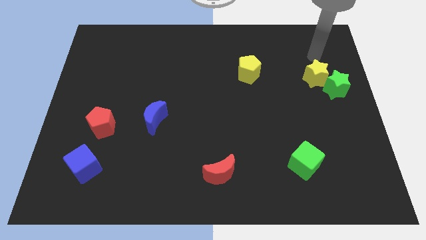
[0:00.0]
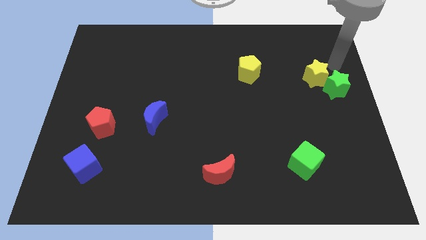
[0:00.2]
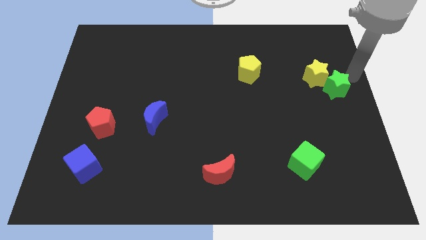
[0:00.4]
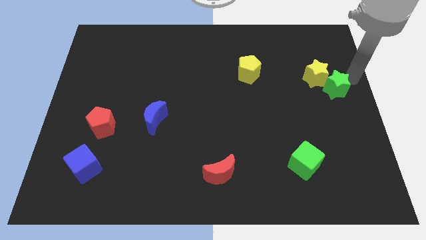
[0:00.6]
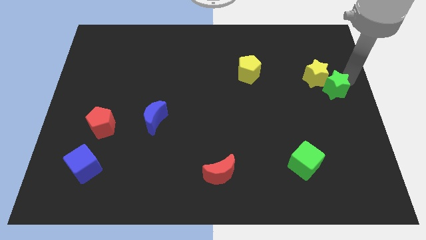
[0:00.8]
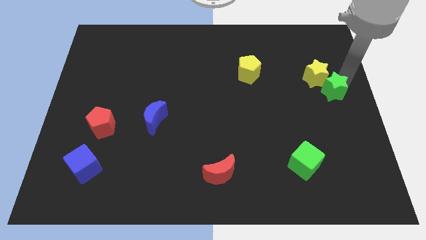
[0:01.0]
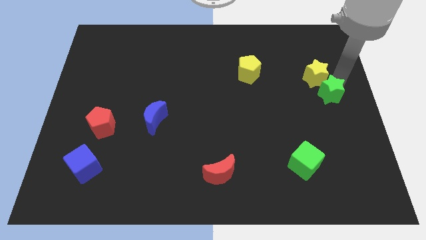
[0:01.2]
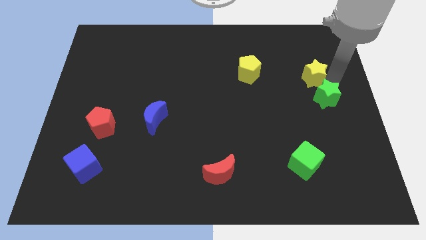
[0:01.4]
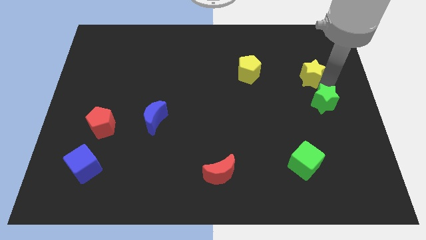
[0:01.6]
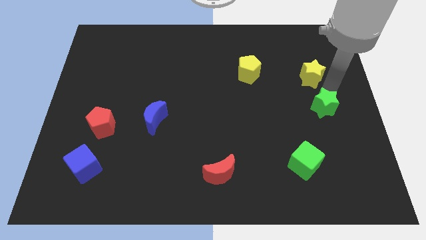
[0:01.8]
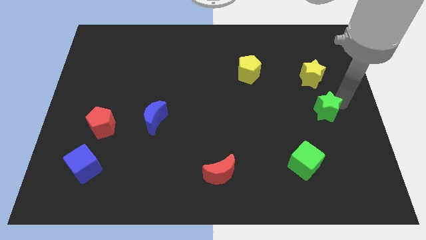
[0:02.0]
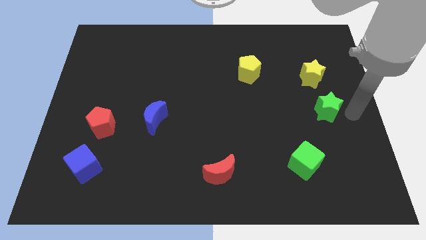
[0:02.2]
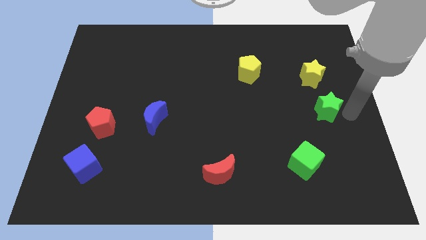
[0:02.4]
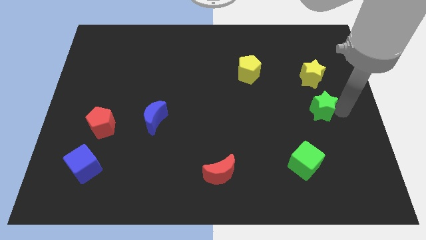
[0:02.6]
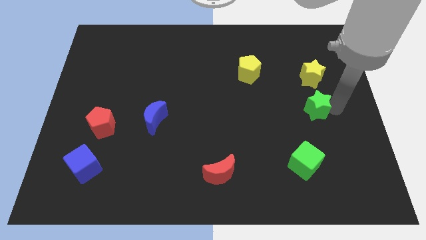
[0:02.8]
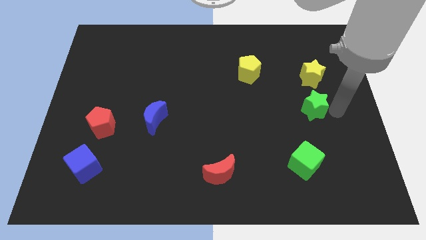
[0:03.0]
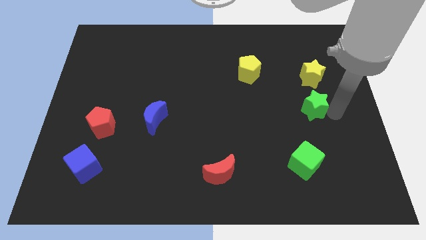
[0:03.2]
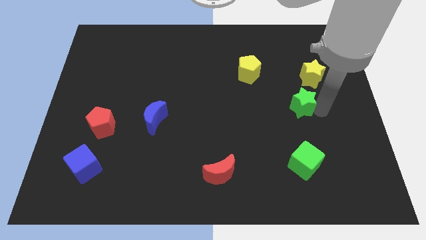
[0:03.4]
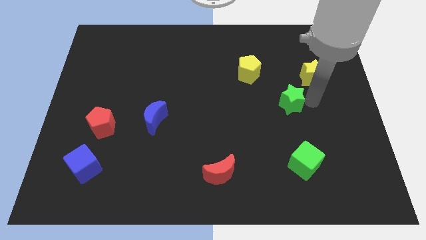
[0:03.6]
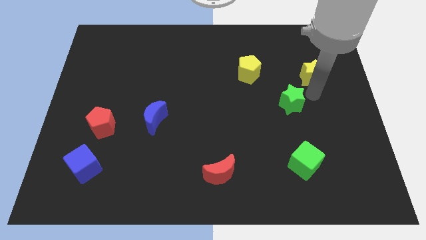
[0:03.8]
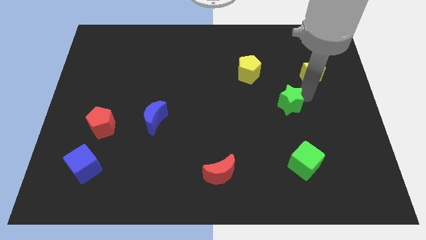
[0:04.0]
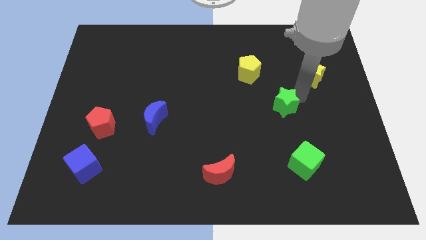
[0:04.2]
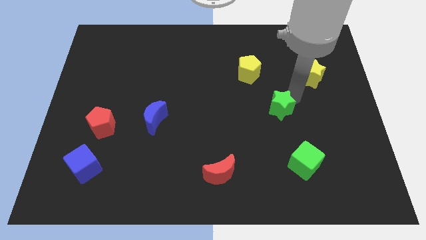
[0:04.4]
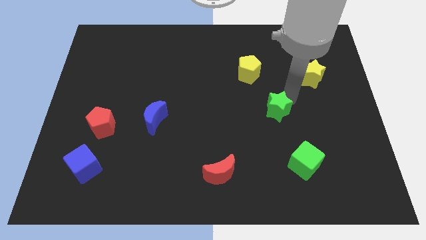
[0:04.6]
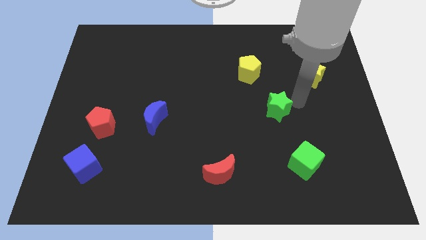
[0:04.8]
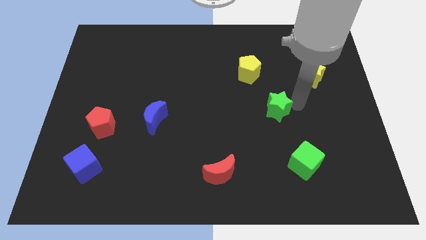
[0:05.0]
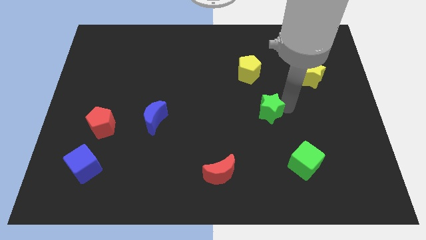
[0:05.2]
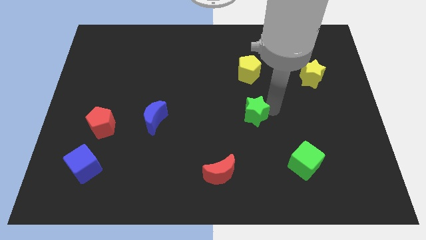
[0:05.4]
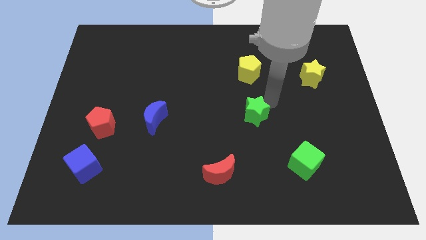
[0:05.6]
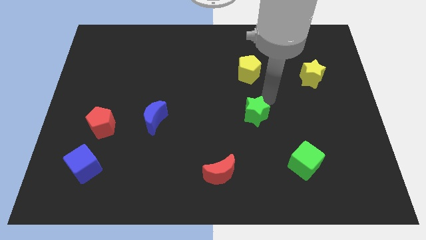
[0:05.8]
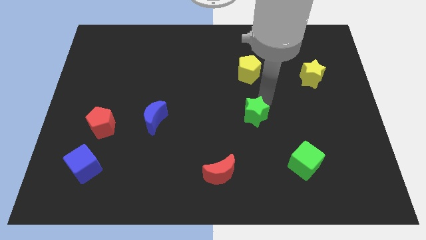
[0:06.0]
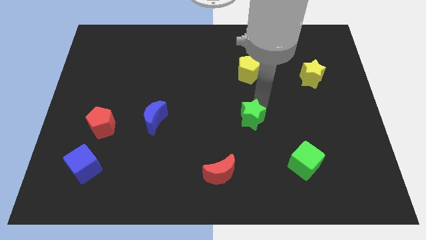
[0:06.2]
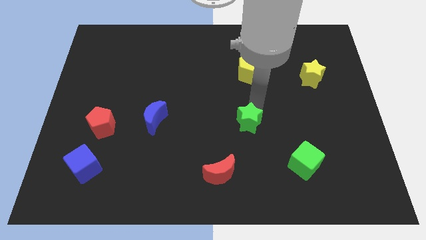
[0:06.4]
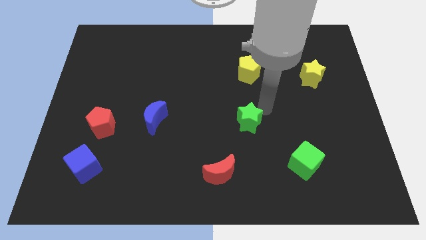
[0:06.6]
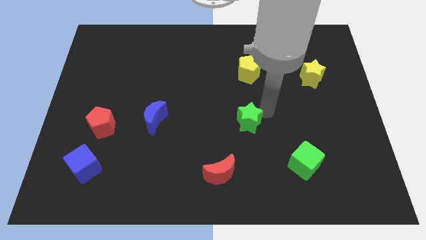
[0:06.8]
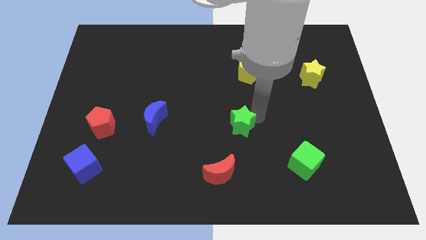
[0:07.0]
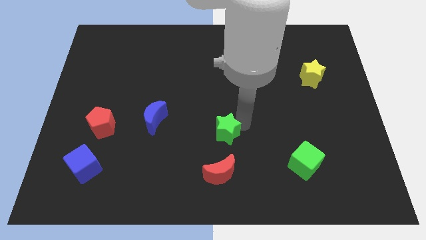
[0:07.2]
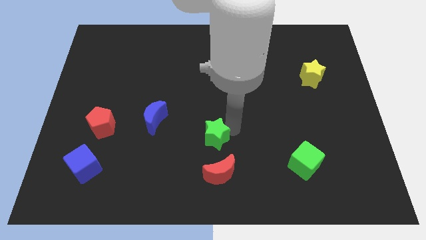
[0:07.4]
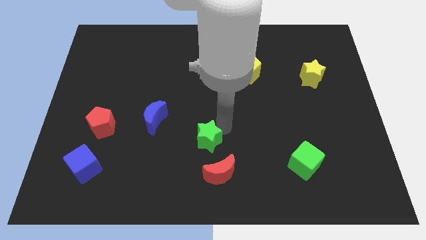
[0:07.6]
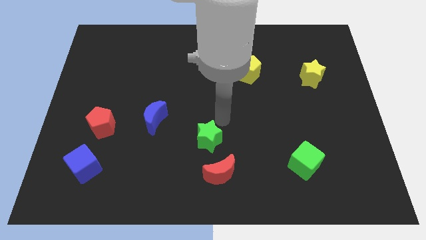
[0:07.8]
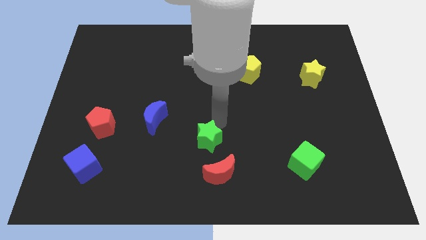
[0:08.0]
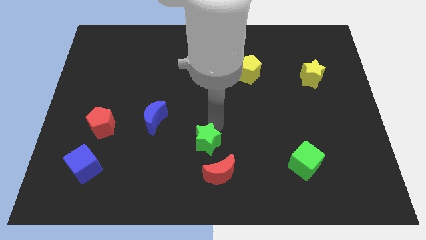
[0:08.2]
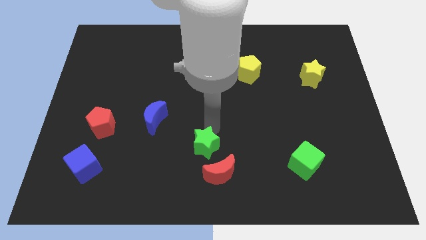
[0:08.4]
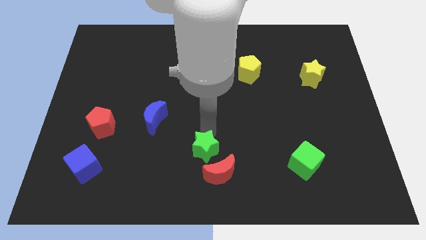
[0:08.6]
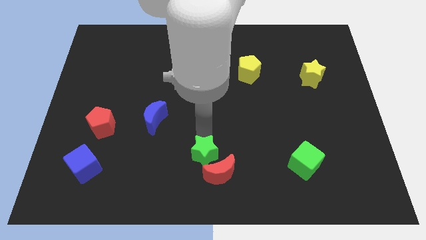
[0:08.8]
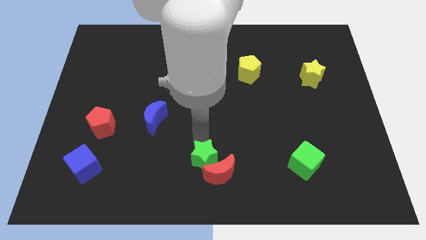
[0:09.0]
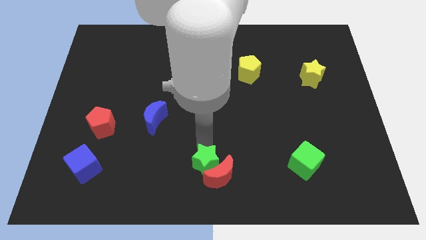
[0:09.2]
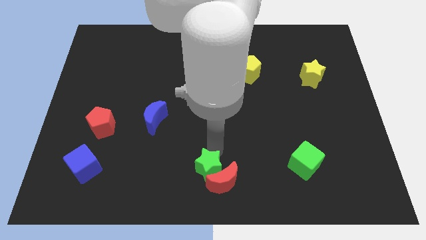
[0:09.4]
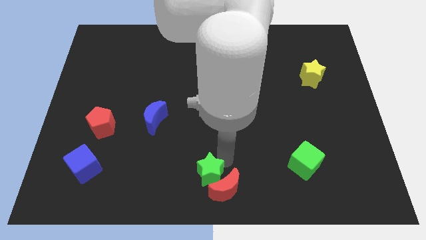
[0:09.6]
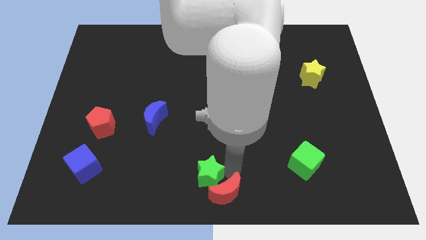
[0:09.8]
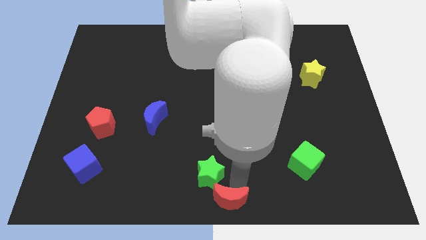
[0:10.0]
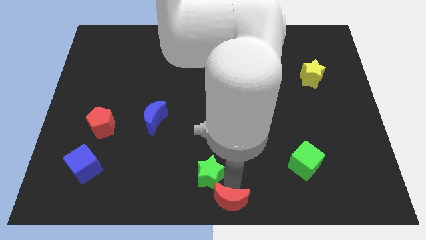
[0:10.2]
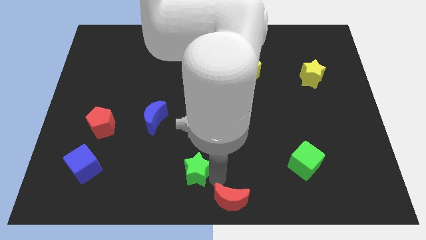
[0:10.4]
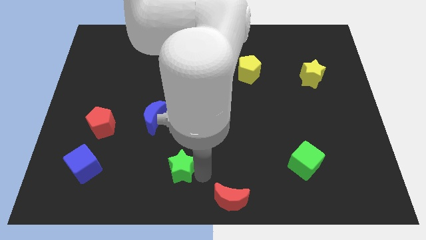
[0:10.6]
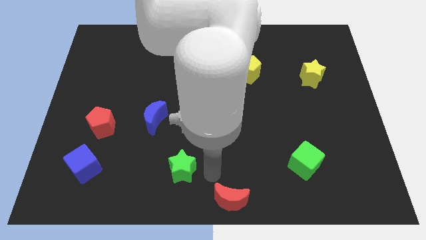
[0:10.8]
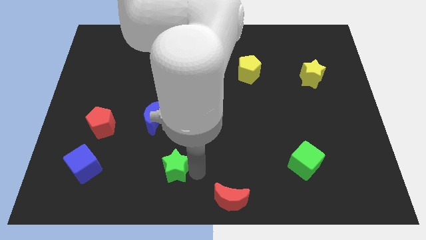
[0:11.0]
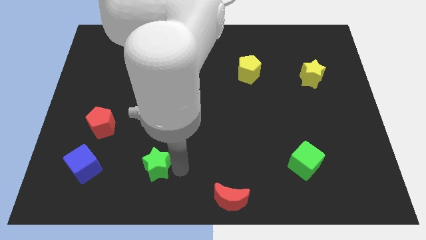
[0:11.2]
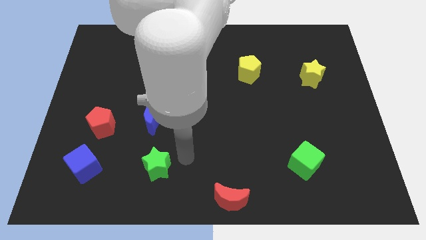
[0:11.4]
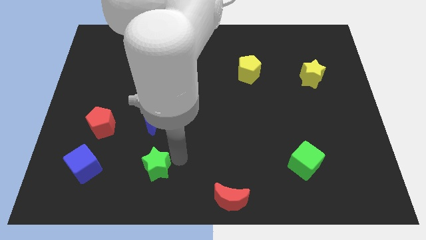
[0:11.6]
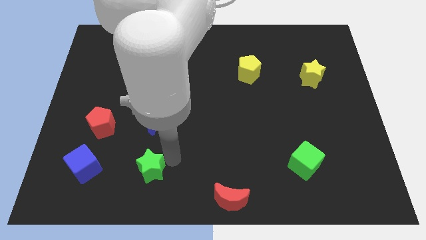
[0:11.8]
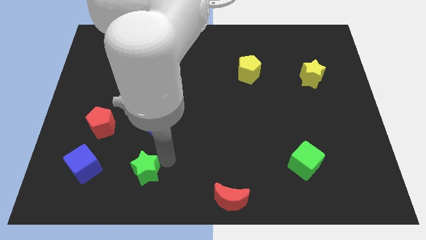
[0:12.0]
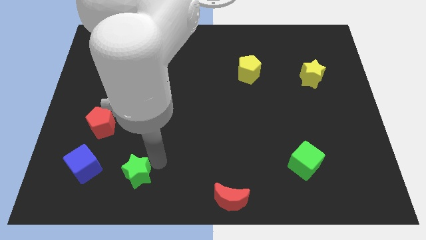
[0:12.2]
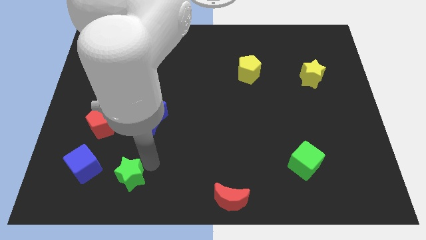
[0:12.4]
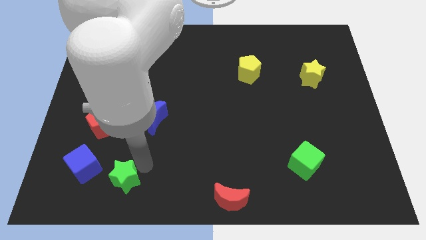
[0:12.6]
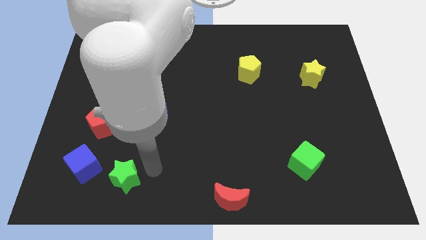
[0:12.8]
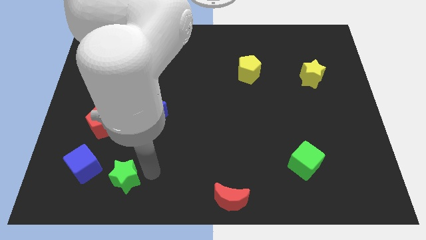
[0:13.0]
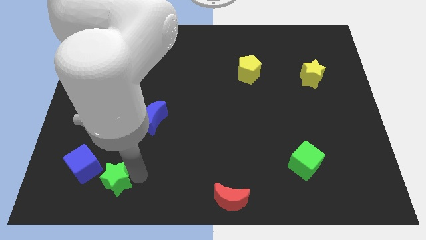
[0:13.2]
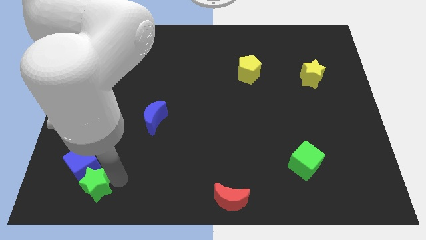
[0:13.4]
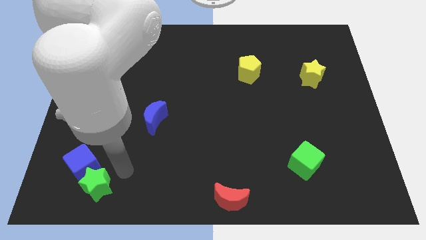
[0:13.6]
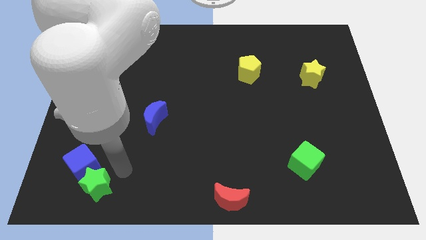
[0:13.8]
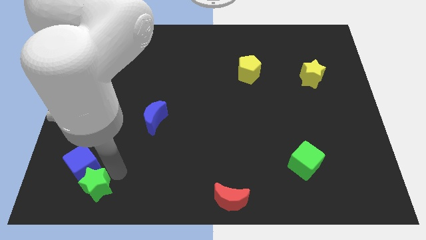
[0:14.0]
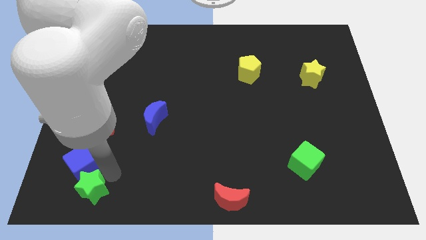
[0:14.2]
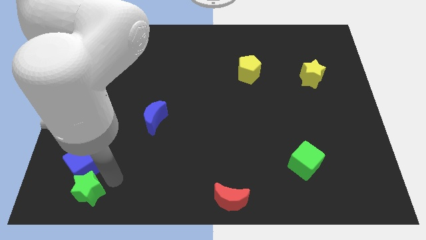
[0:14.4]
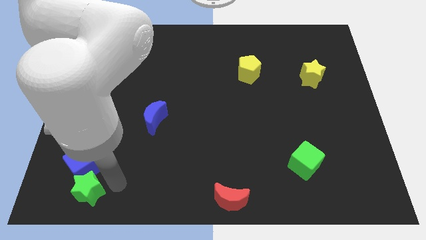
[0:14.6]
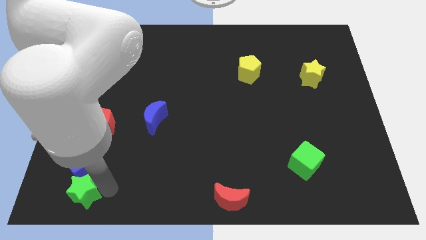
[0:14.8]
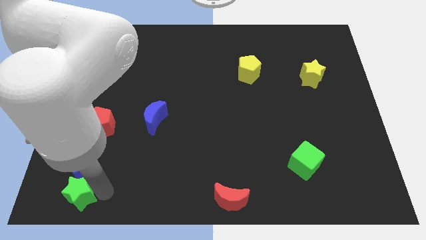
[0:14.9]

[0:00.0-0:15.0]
slide the green star to the lower left corner
